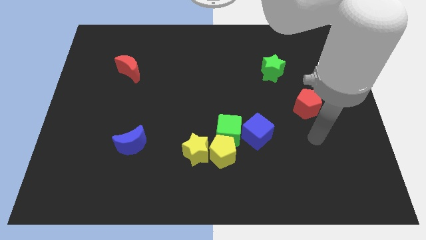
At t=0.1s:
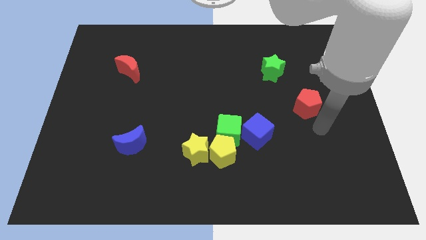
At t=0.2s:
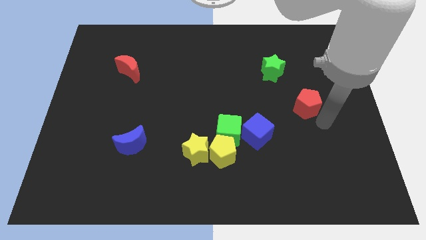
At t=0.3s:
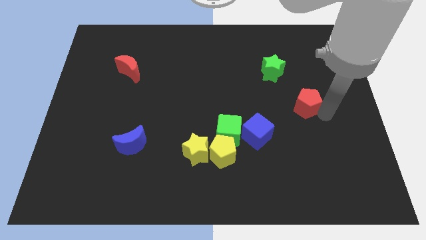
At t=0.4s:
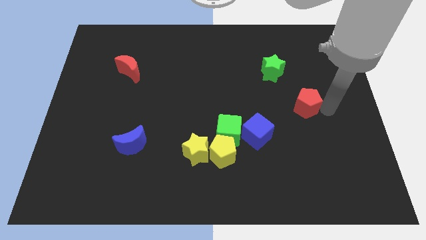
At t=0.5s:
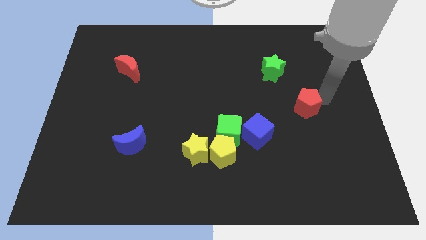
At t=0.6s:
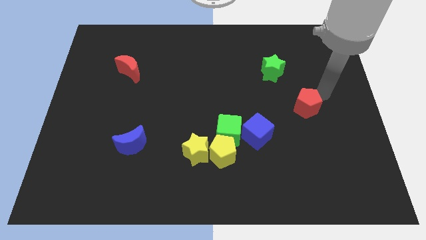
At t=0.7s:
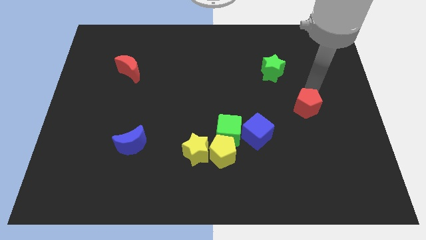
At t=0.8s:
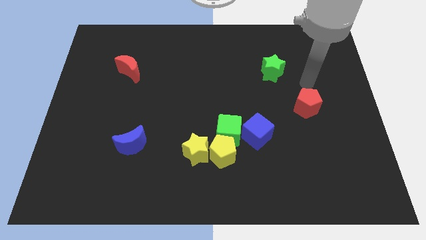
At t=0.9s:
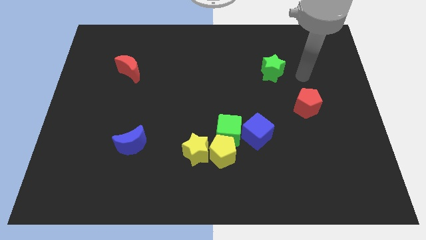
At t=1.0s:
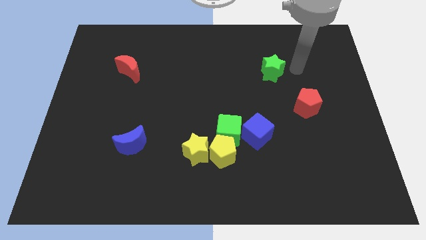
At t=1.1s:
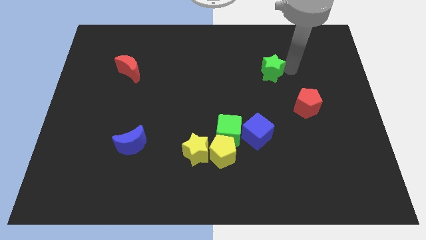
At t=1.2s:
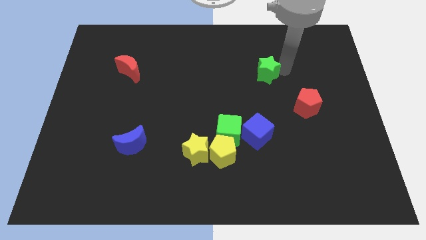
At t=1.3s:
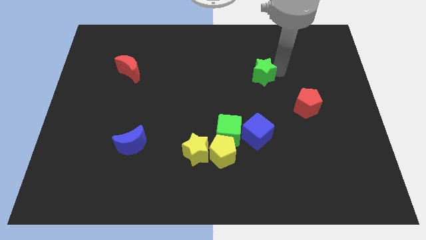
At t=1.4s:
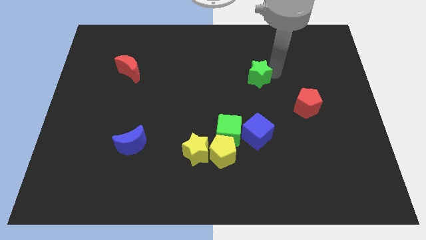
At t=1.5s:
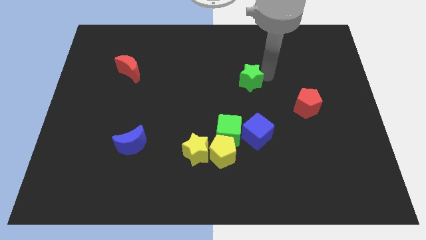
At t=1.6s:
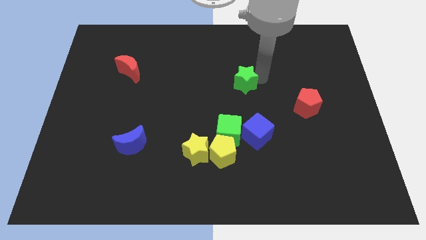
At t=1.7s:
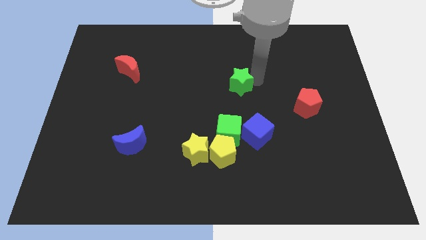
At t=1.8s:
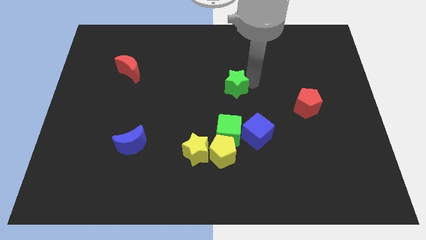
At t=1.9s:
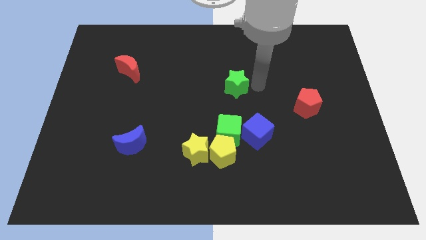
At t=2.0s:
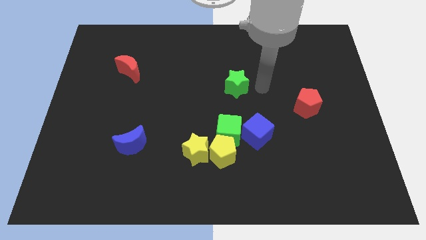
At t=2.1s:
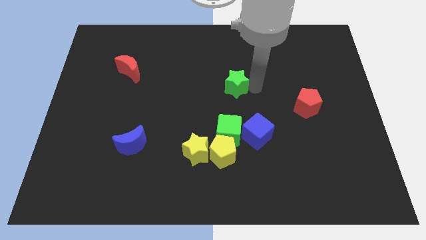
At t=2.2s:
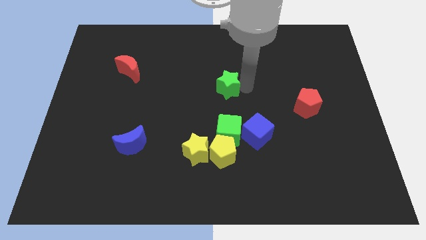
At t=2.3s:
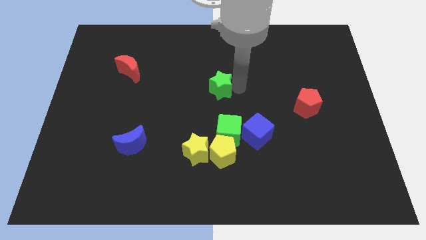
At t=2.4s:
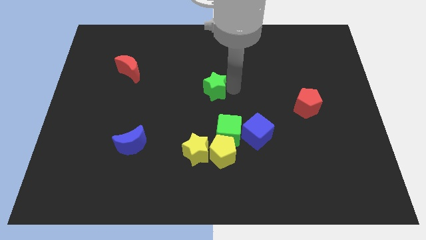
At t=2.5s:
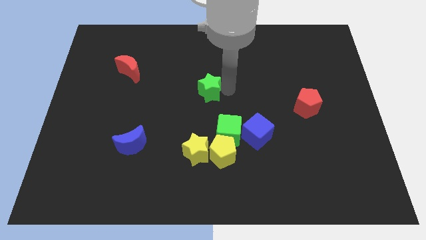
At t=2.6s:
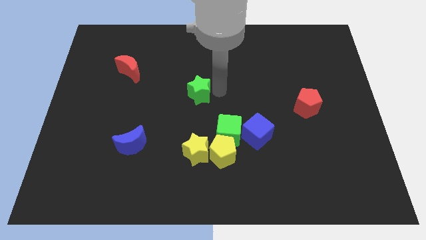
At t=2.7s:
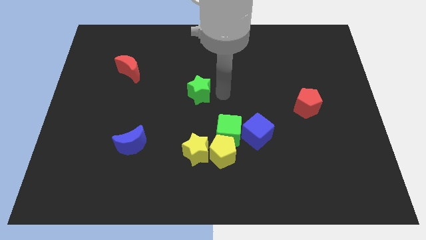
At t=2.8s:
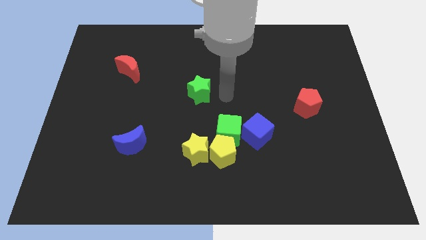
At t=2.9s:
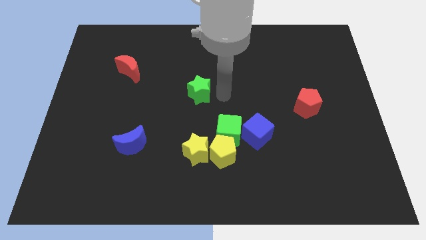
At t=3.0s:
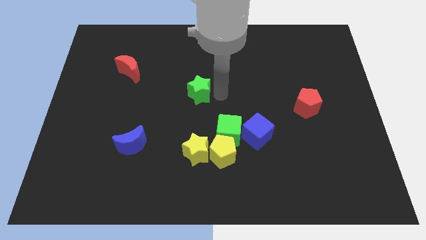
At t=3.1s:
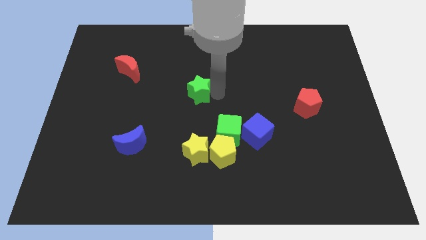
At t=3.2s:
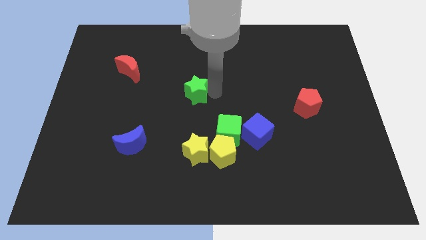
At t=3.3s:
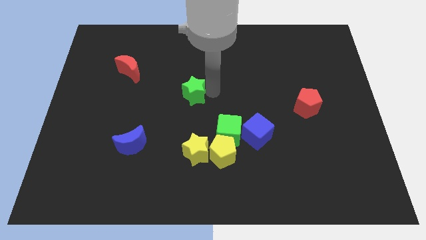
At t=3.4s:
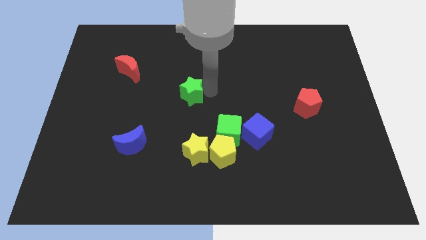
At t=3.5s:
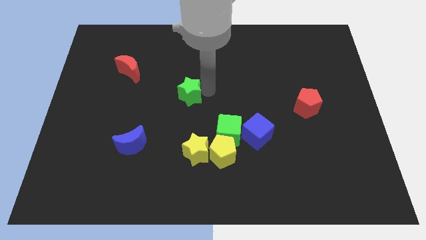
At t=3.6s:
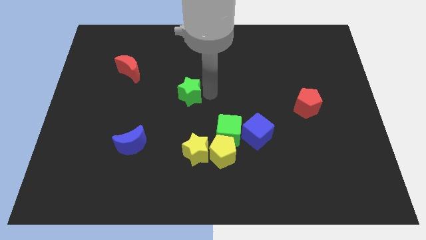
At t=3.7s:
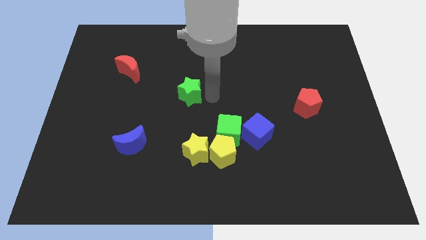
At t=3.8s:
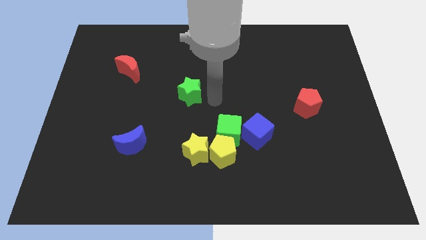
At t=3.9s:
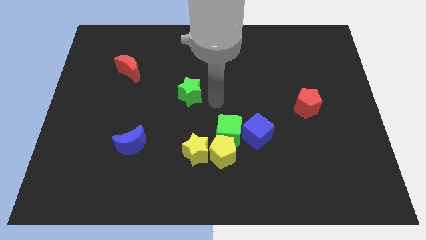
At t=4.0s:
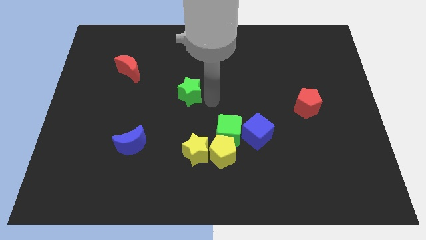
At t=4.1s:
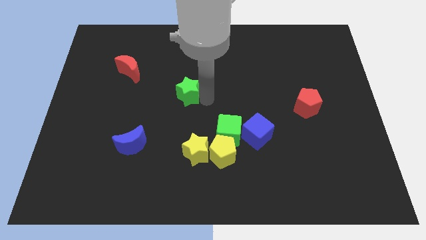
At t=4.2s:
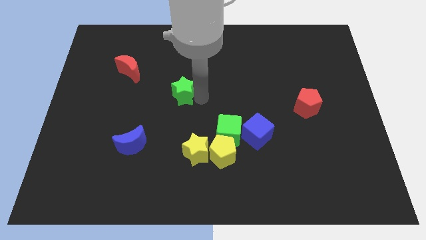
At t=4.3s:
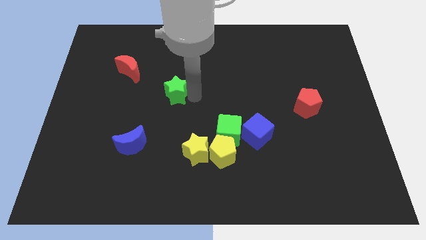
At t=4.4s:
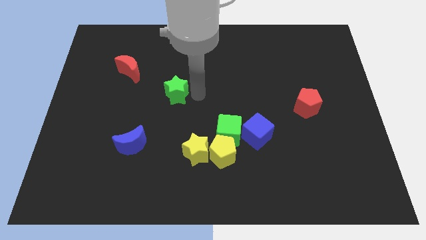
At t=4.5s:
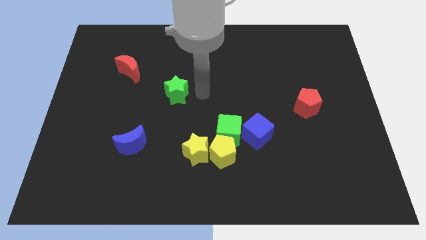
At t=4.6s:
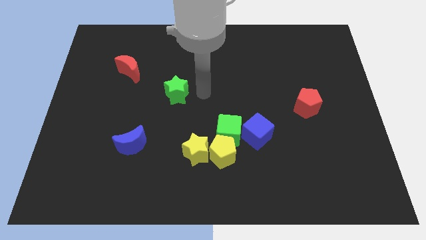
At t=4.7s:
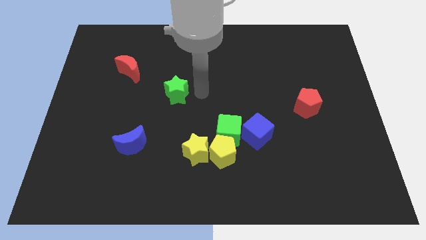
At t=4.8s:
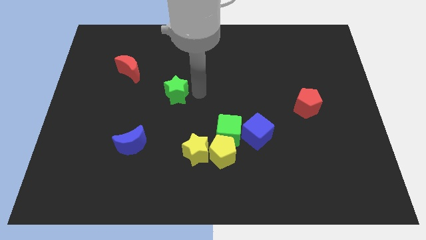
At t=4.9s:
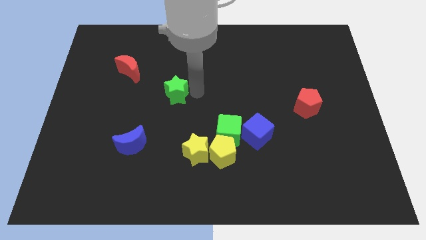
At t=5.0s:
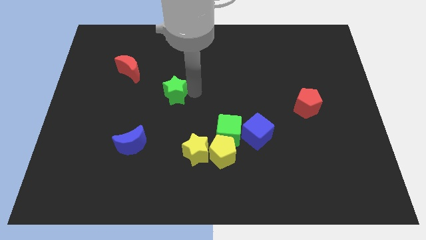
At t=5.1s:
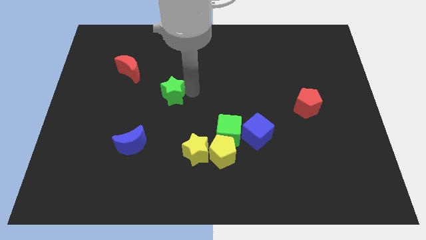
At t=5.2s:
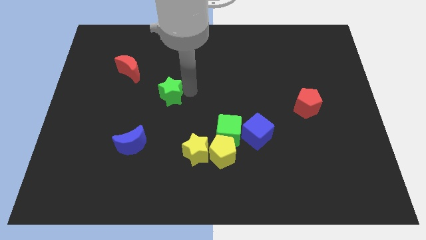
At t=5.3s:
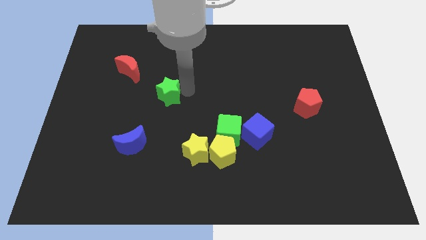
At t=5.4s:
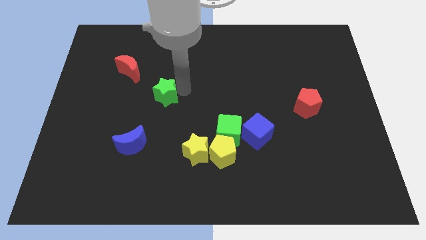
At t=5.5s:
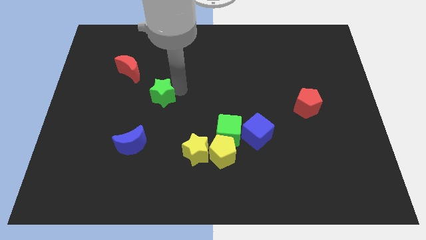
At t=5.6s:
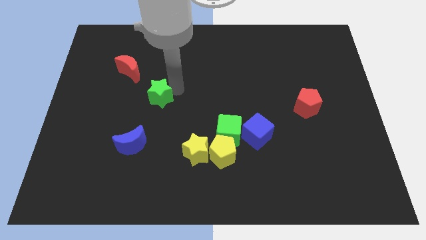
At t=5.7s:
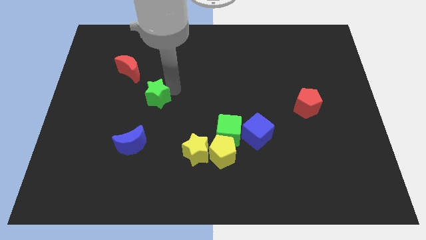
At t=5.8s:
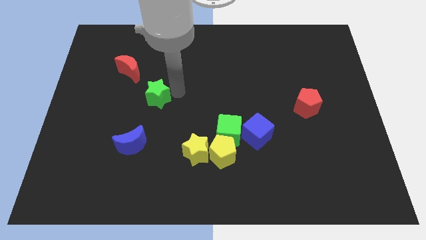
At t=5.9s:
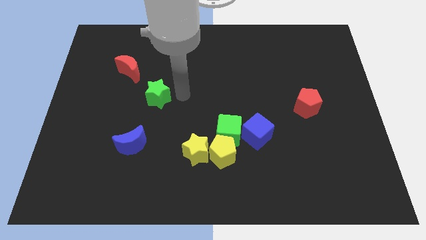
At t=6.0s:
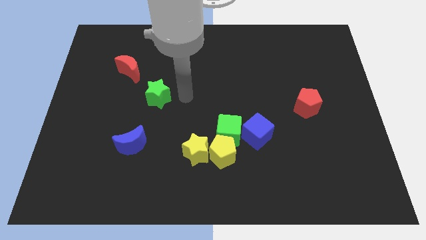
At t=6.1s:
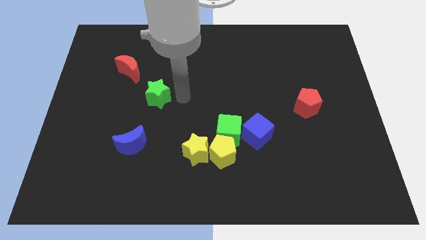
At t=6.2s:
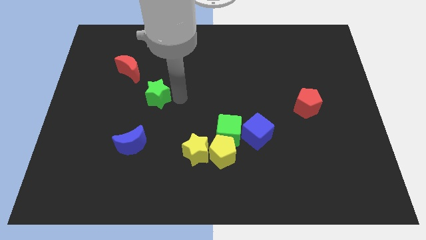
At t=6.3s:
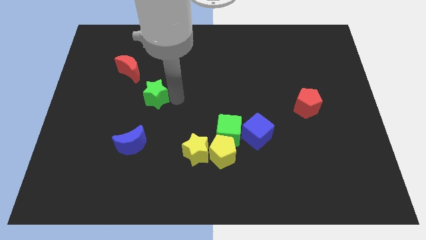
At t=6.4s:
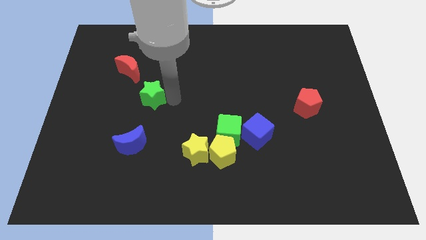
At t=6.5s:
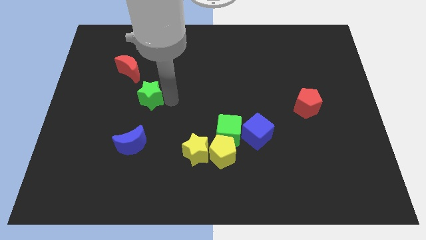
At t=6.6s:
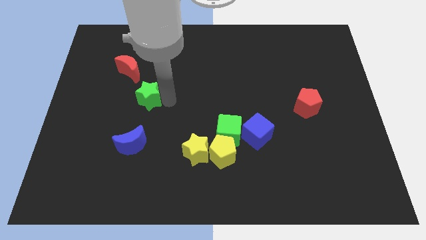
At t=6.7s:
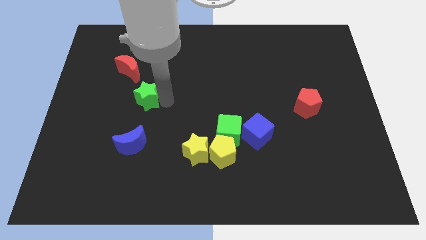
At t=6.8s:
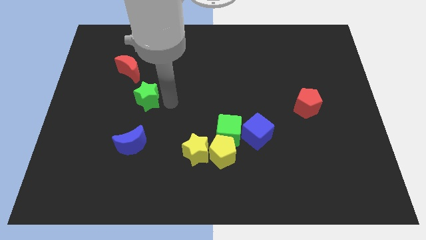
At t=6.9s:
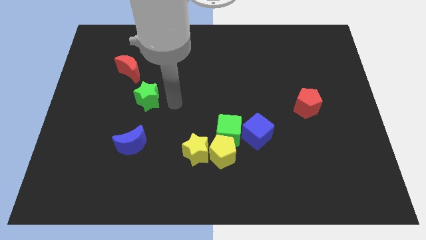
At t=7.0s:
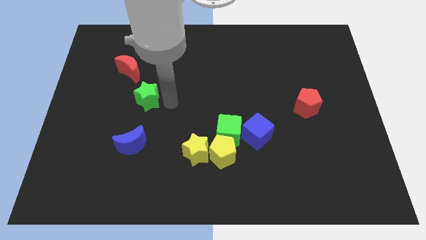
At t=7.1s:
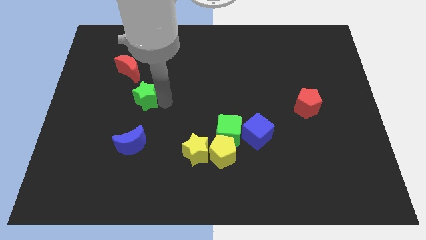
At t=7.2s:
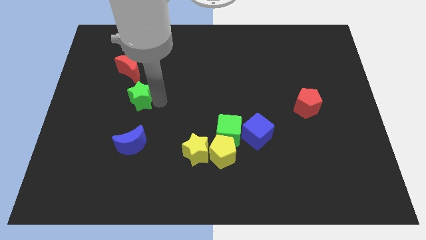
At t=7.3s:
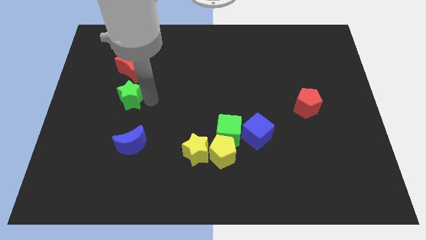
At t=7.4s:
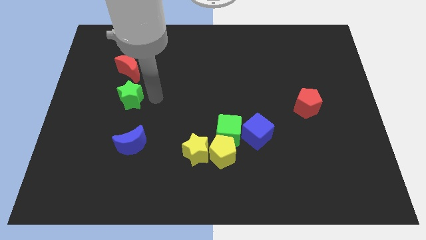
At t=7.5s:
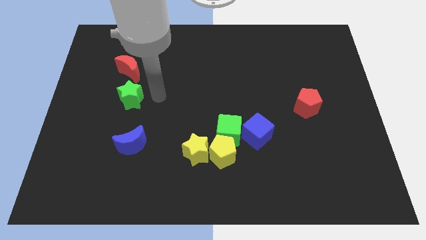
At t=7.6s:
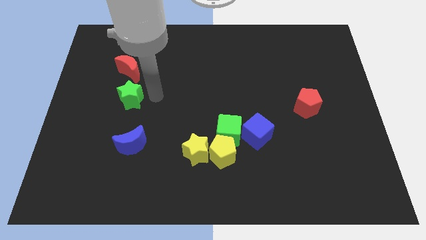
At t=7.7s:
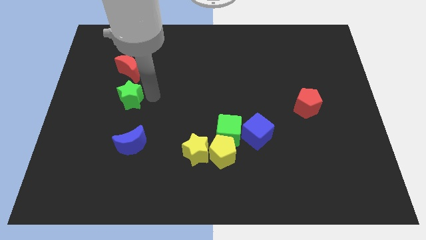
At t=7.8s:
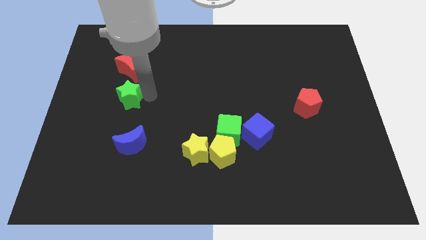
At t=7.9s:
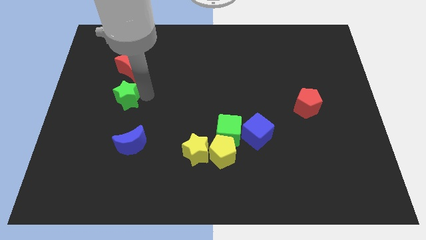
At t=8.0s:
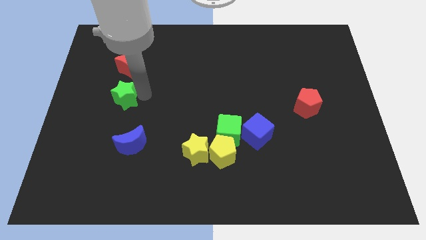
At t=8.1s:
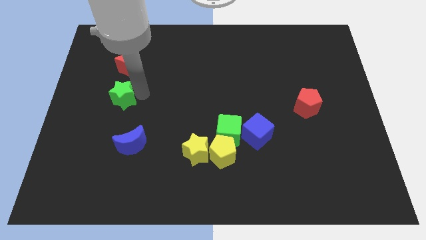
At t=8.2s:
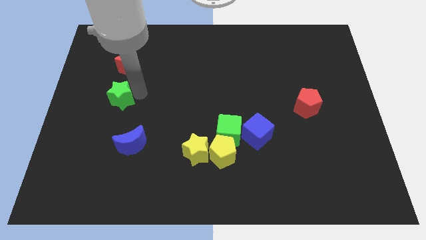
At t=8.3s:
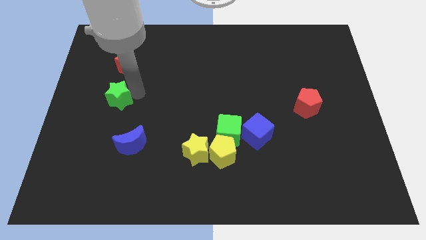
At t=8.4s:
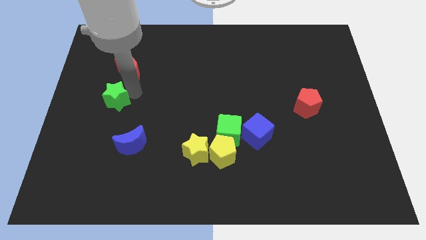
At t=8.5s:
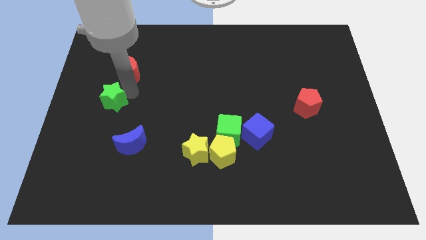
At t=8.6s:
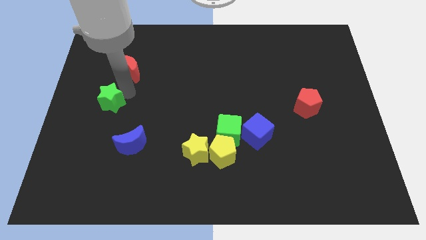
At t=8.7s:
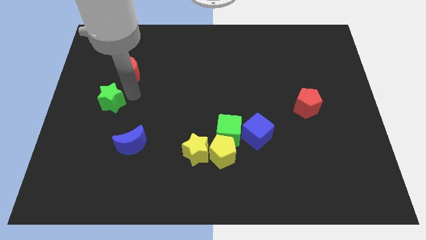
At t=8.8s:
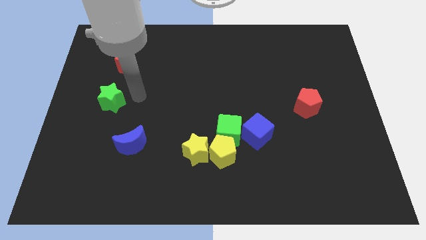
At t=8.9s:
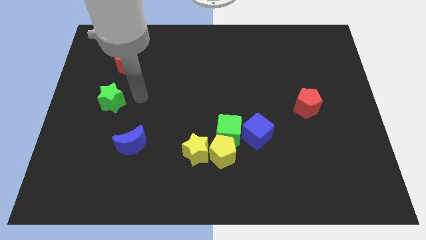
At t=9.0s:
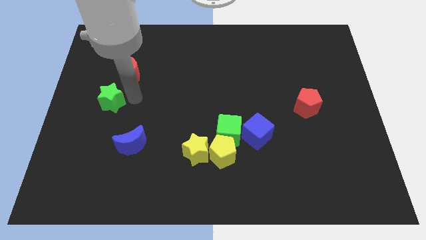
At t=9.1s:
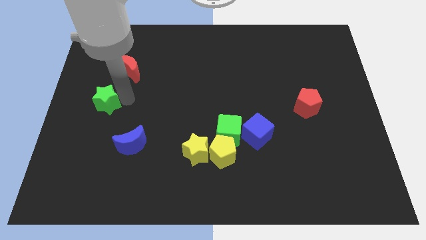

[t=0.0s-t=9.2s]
push the green star to the left side
